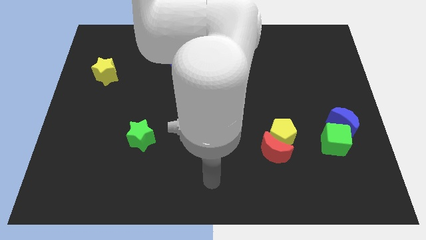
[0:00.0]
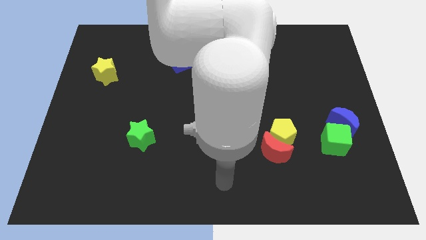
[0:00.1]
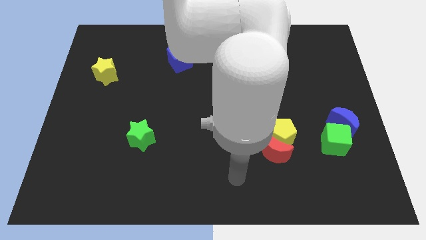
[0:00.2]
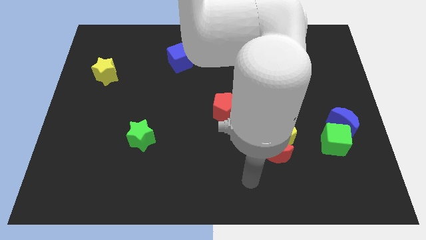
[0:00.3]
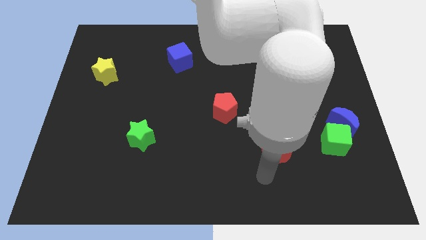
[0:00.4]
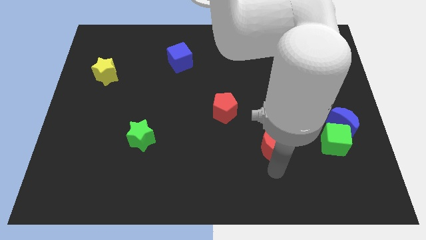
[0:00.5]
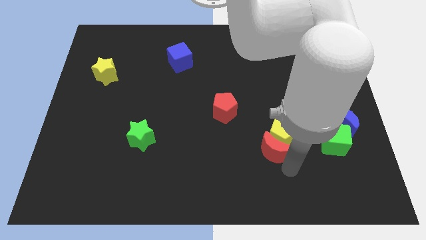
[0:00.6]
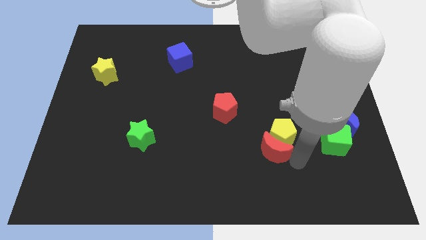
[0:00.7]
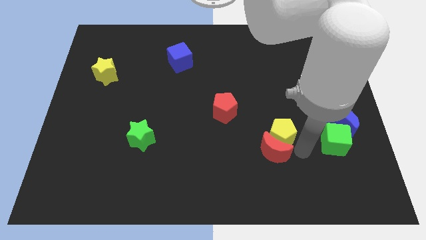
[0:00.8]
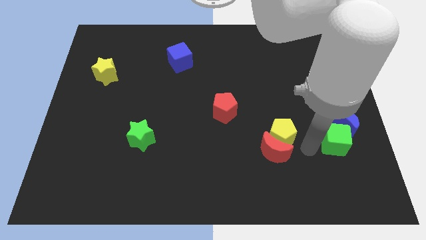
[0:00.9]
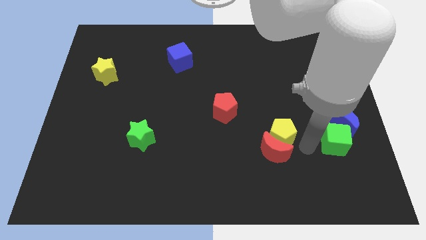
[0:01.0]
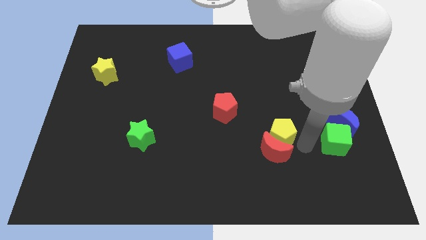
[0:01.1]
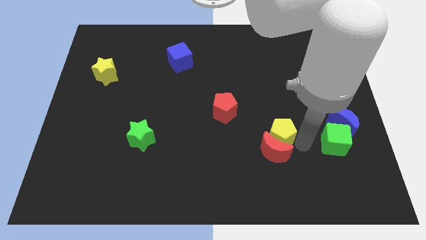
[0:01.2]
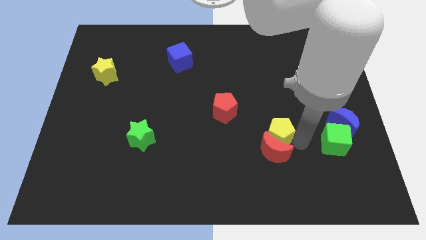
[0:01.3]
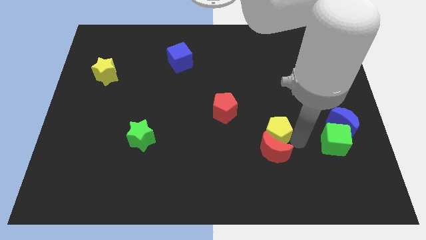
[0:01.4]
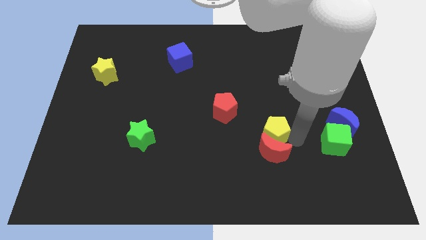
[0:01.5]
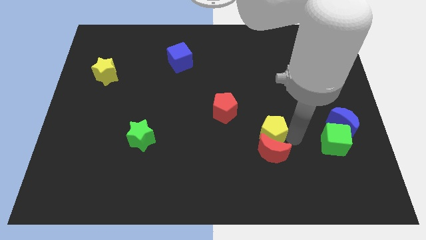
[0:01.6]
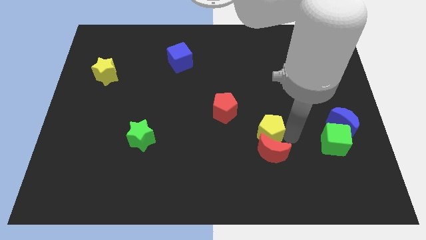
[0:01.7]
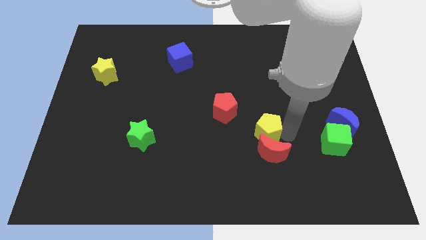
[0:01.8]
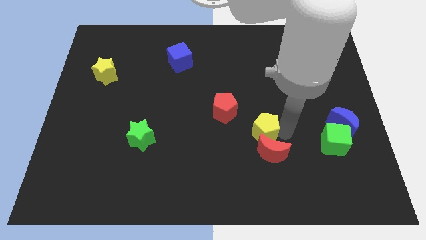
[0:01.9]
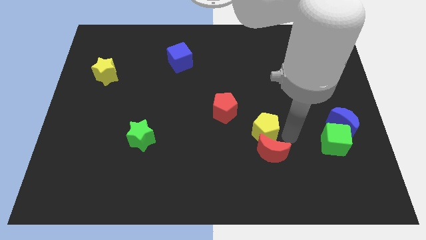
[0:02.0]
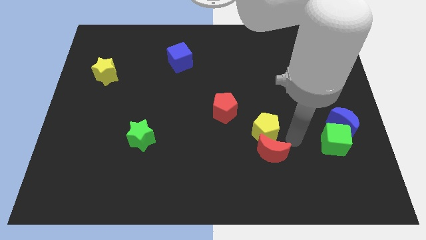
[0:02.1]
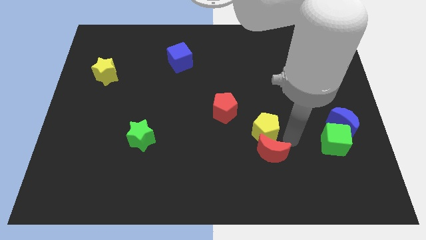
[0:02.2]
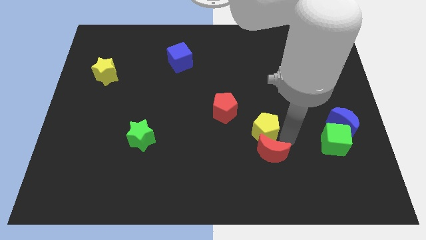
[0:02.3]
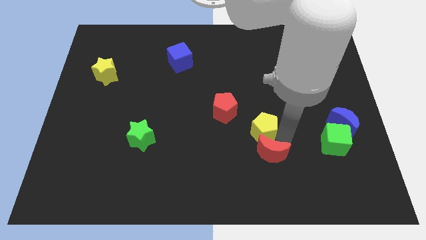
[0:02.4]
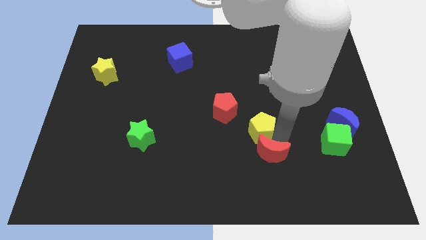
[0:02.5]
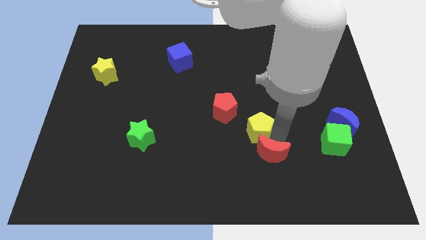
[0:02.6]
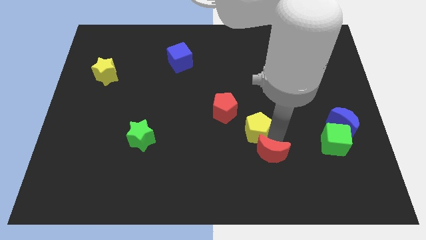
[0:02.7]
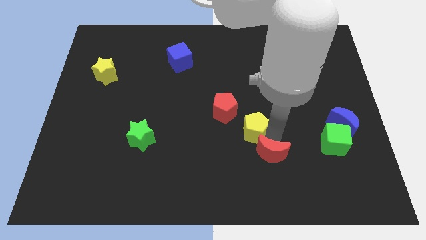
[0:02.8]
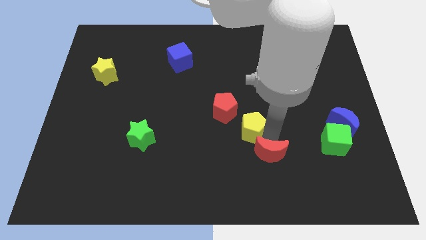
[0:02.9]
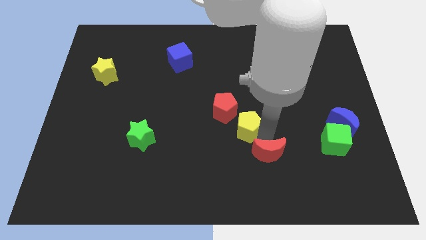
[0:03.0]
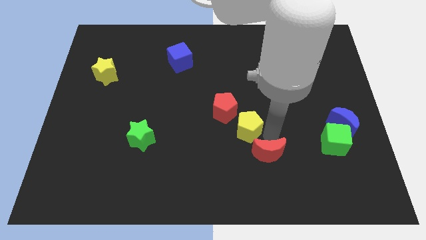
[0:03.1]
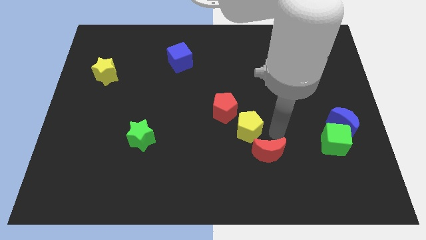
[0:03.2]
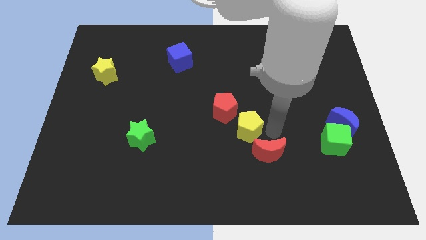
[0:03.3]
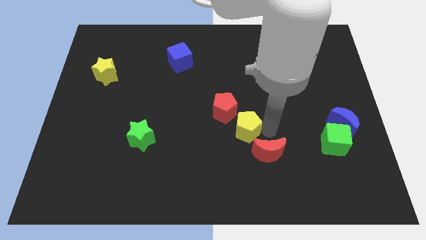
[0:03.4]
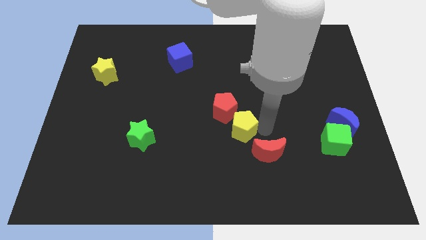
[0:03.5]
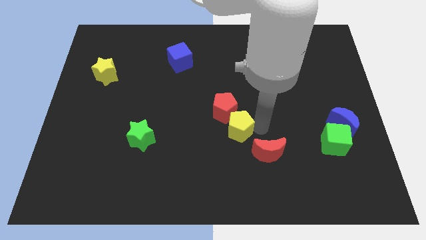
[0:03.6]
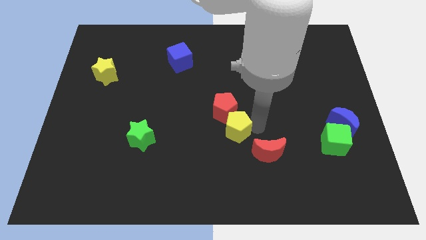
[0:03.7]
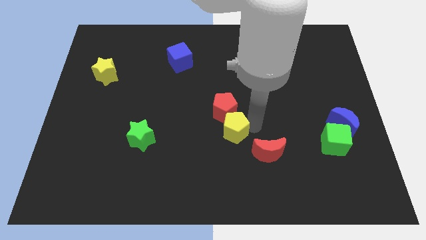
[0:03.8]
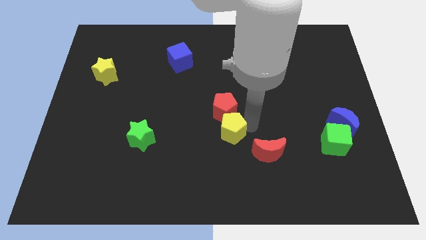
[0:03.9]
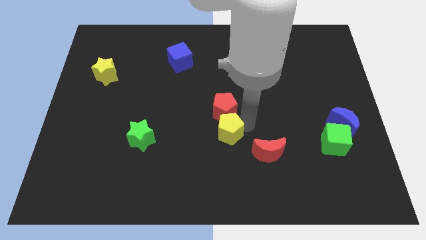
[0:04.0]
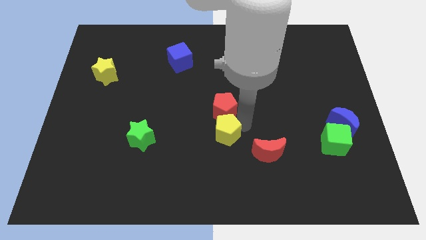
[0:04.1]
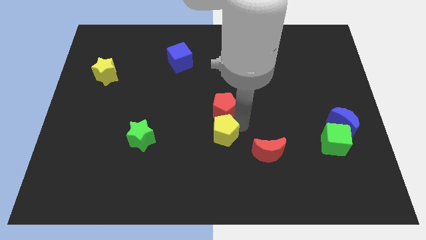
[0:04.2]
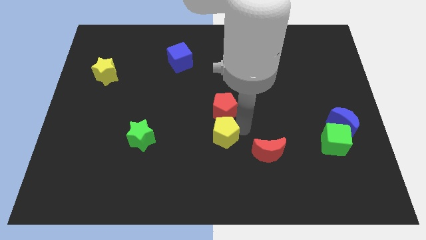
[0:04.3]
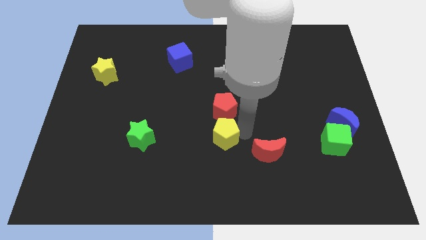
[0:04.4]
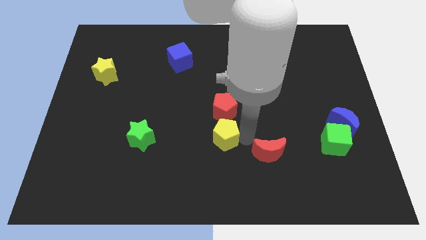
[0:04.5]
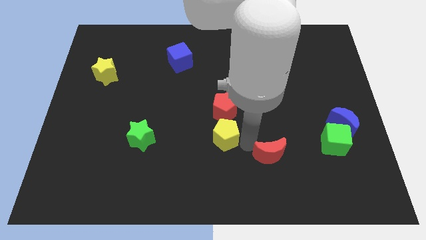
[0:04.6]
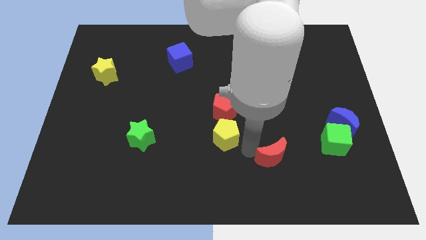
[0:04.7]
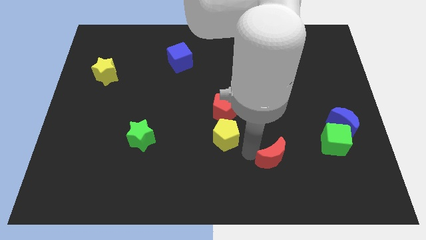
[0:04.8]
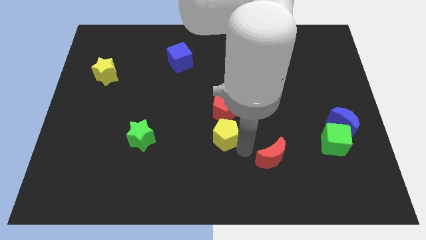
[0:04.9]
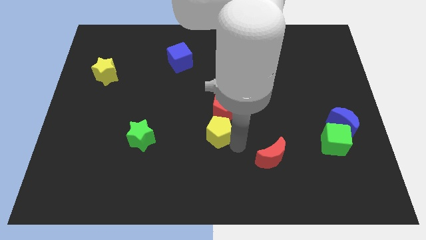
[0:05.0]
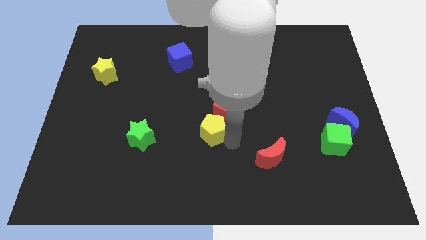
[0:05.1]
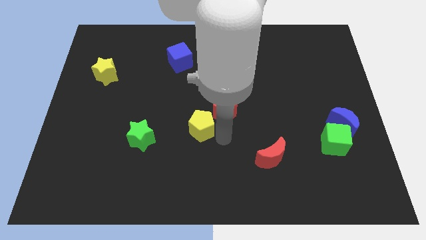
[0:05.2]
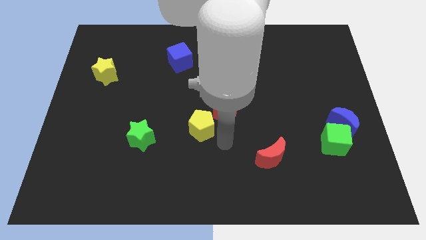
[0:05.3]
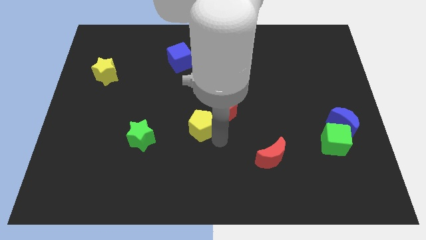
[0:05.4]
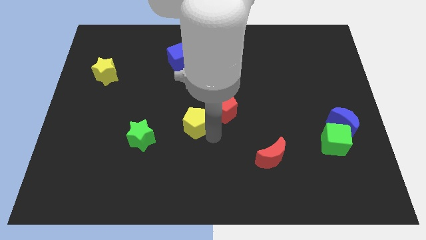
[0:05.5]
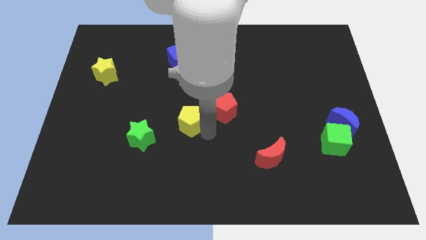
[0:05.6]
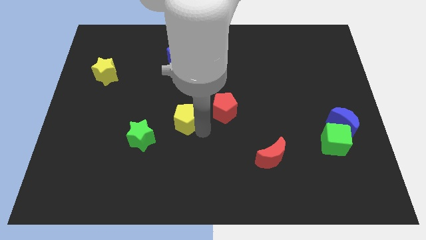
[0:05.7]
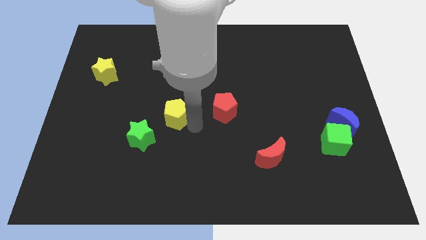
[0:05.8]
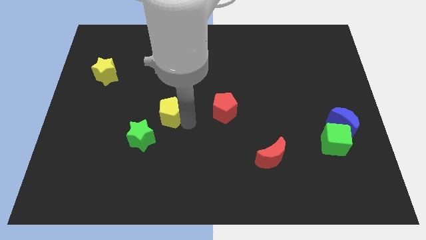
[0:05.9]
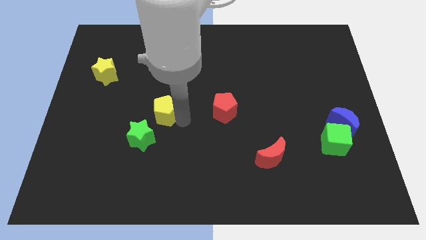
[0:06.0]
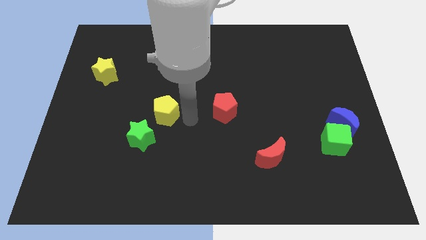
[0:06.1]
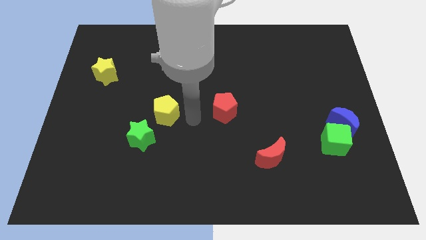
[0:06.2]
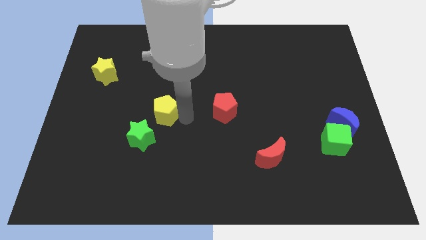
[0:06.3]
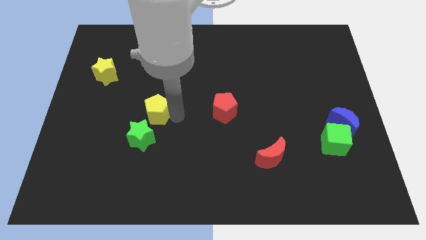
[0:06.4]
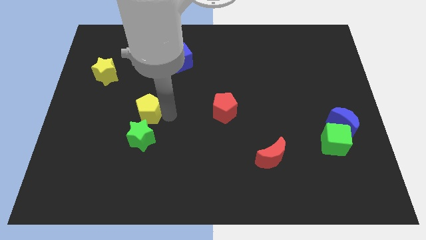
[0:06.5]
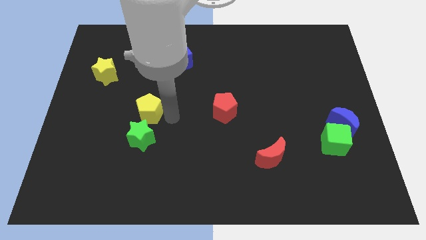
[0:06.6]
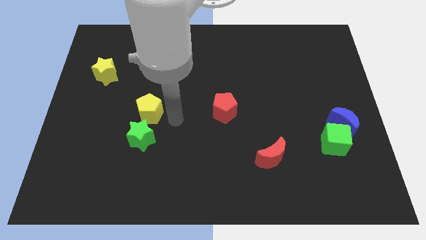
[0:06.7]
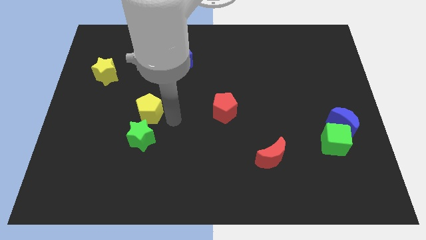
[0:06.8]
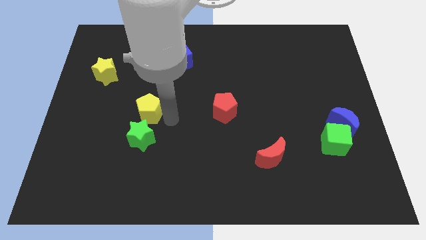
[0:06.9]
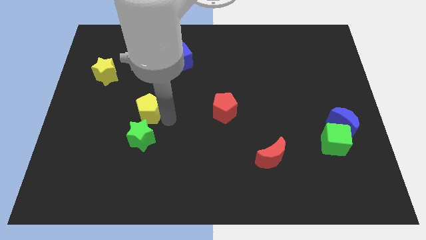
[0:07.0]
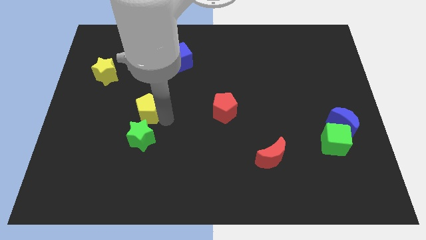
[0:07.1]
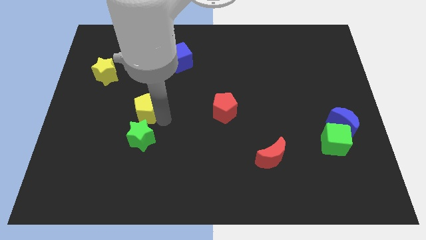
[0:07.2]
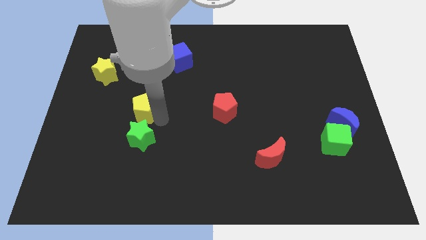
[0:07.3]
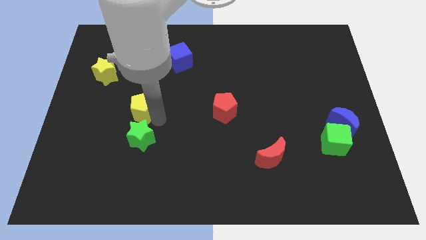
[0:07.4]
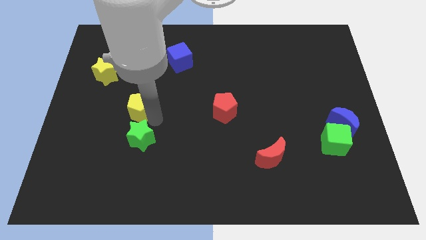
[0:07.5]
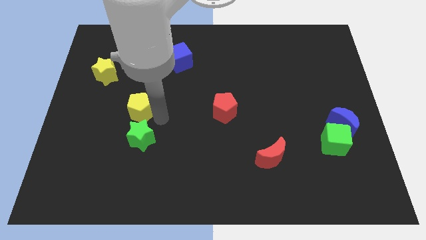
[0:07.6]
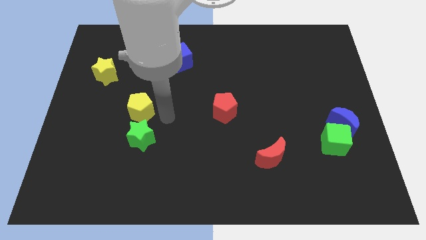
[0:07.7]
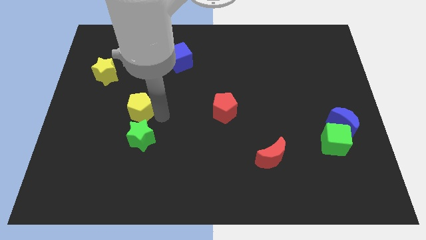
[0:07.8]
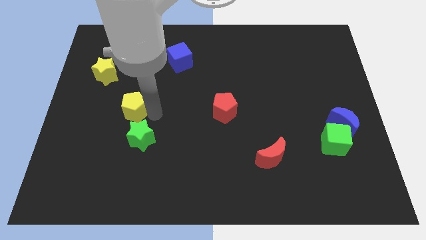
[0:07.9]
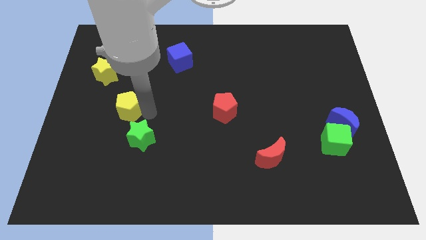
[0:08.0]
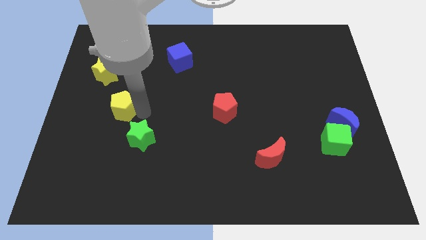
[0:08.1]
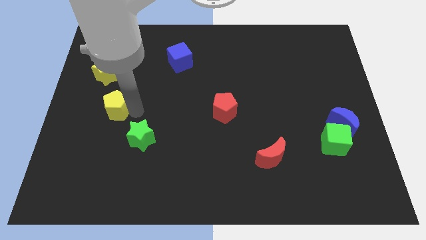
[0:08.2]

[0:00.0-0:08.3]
move the yellow pentagon below the yellow star
